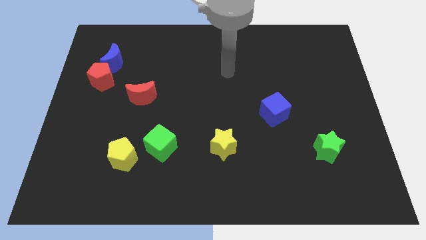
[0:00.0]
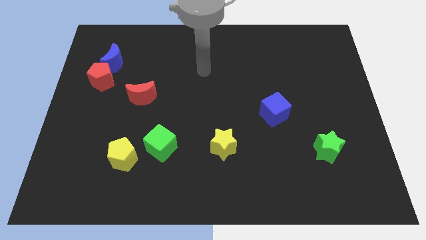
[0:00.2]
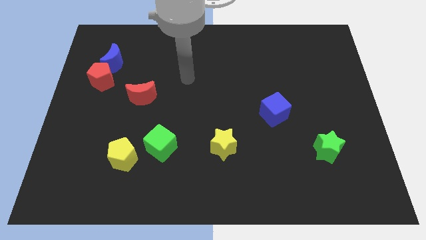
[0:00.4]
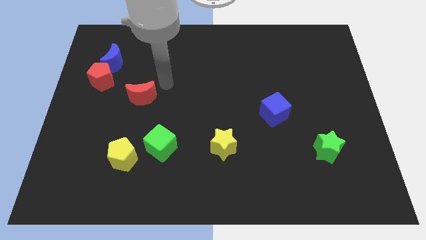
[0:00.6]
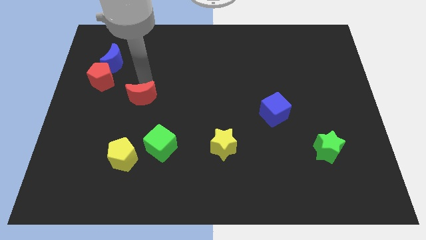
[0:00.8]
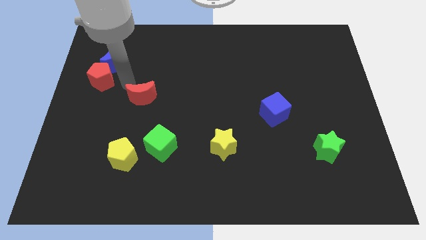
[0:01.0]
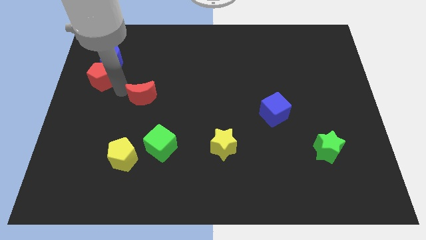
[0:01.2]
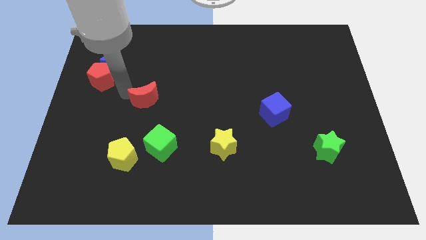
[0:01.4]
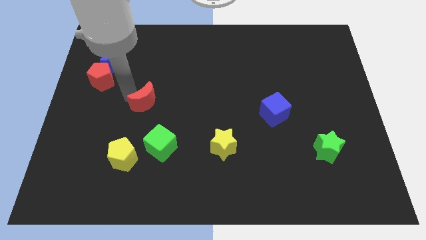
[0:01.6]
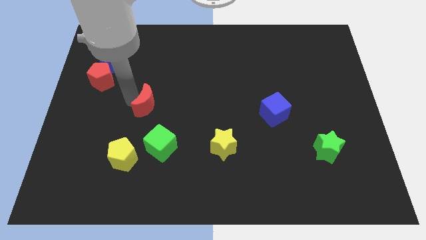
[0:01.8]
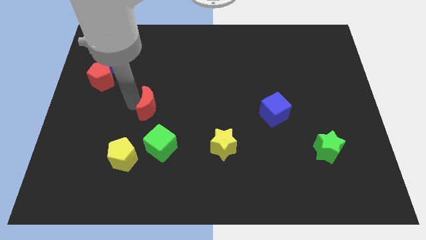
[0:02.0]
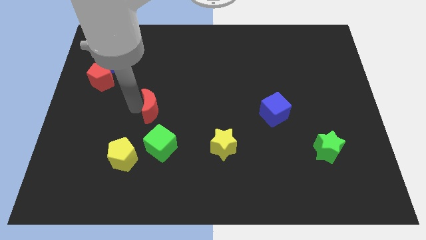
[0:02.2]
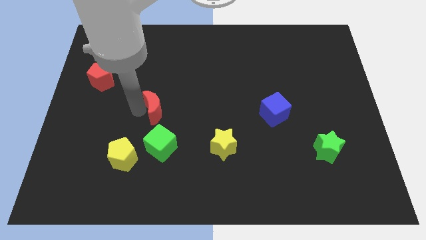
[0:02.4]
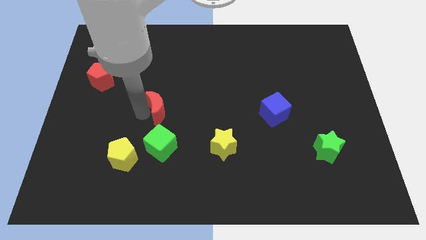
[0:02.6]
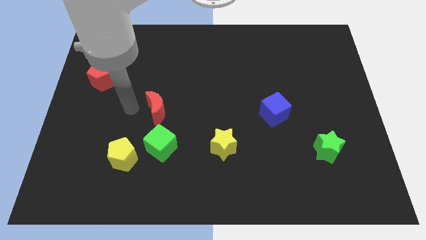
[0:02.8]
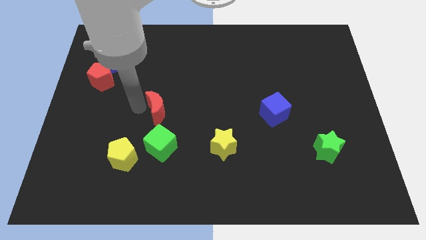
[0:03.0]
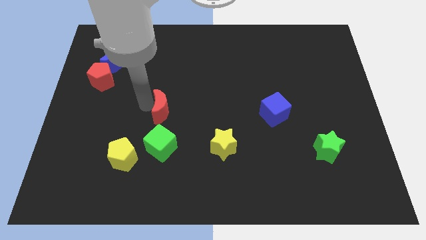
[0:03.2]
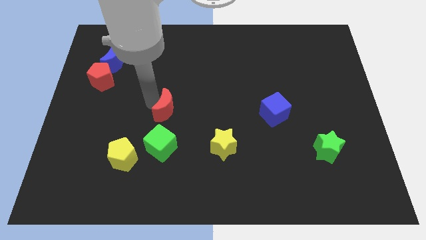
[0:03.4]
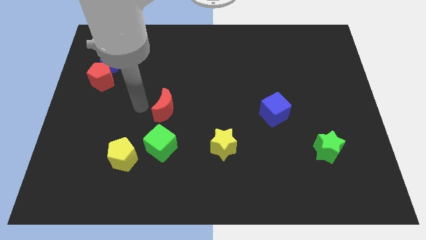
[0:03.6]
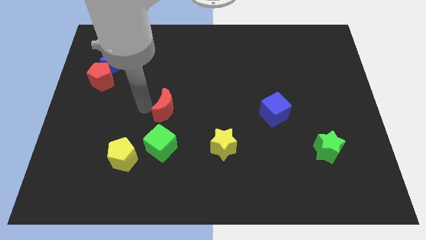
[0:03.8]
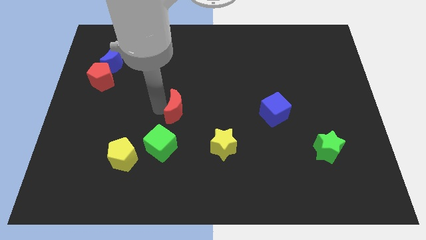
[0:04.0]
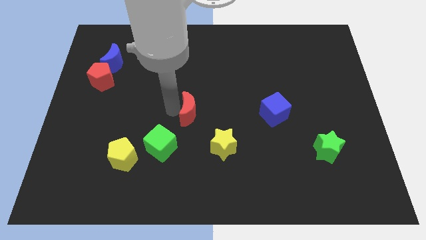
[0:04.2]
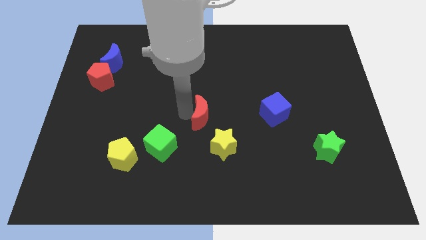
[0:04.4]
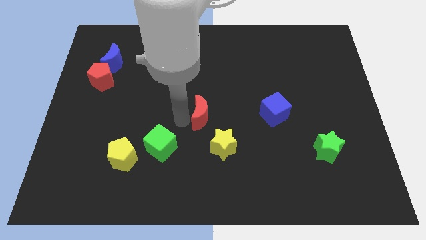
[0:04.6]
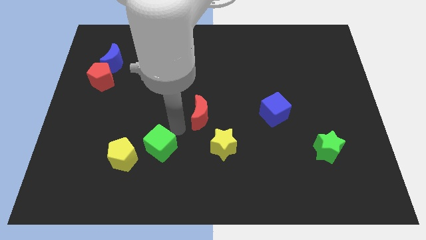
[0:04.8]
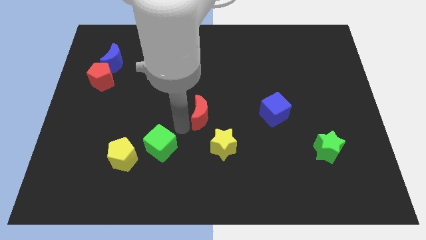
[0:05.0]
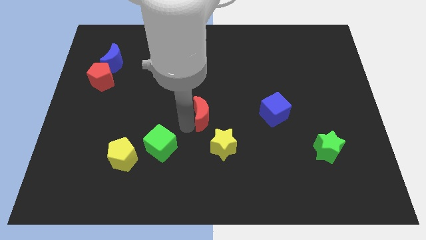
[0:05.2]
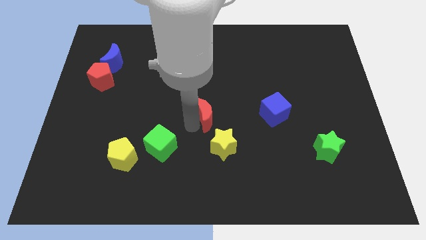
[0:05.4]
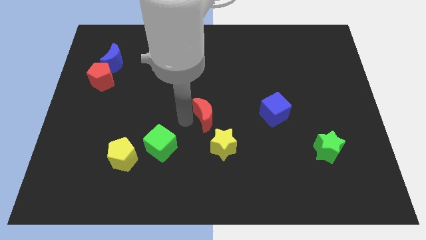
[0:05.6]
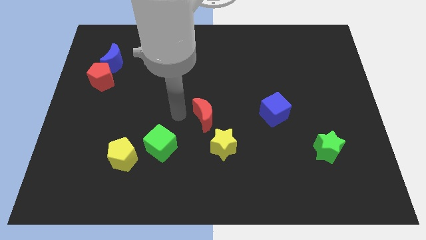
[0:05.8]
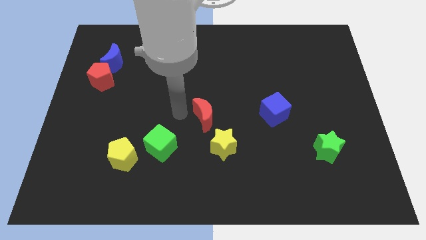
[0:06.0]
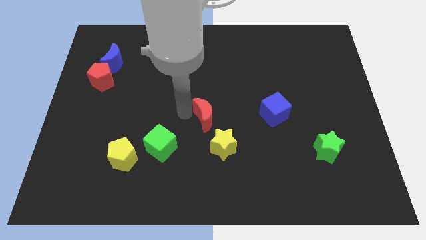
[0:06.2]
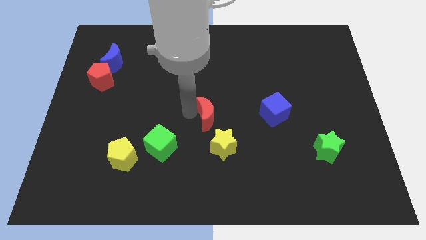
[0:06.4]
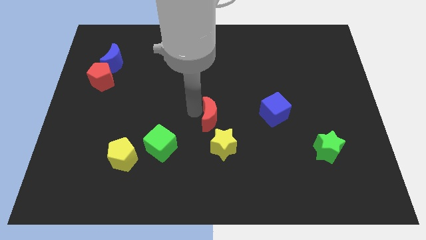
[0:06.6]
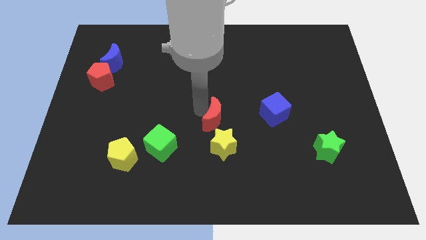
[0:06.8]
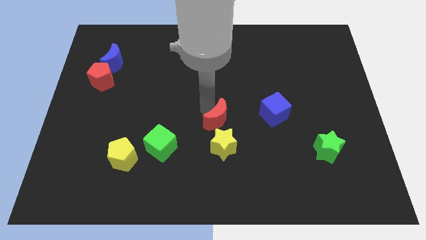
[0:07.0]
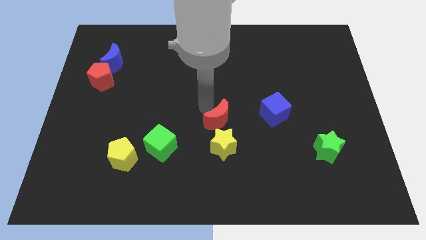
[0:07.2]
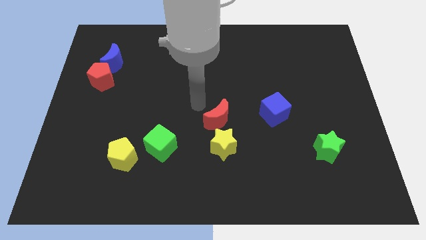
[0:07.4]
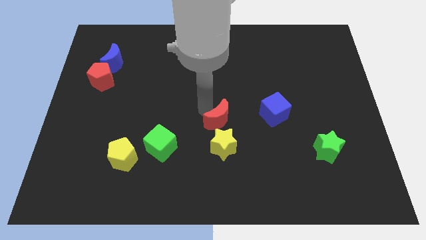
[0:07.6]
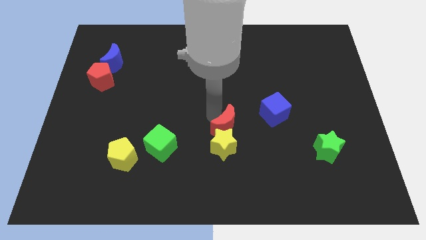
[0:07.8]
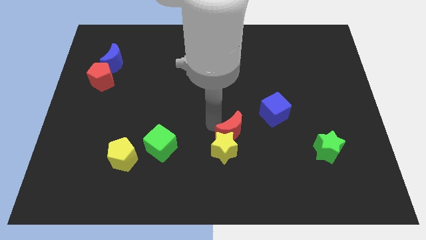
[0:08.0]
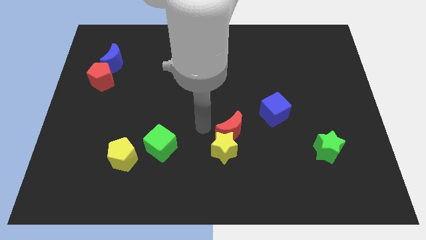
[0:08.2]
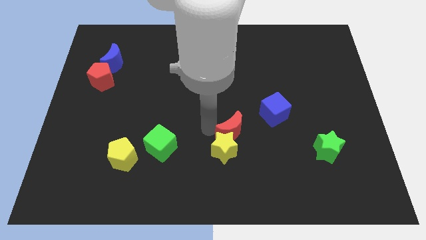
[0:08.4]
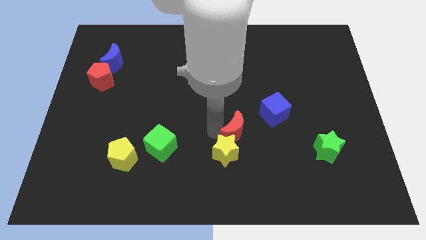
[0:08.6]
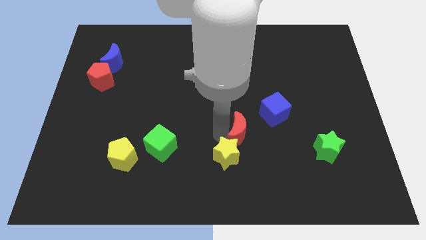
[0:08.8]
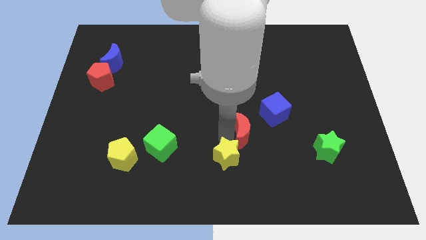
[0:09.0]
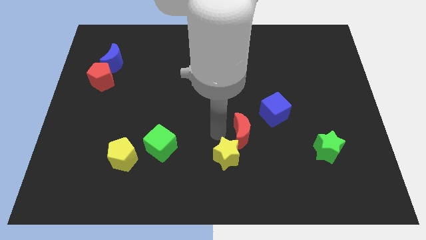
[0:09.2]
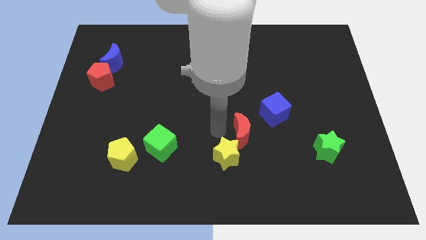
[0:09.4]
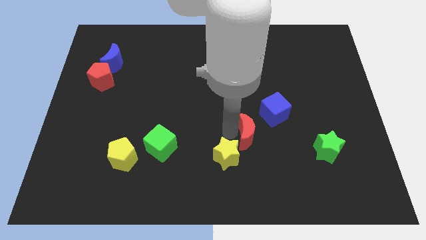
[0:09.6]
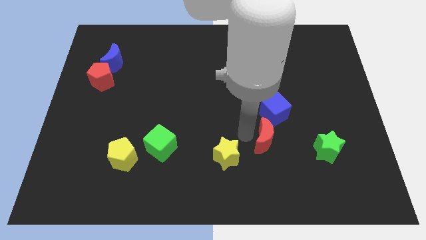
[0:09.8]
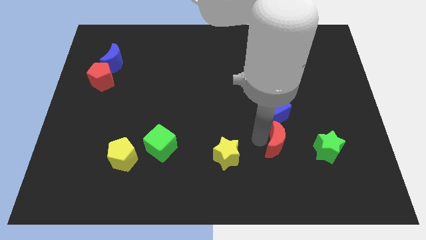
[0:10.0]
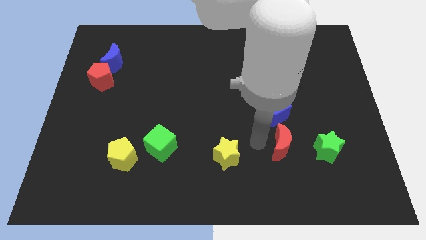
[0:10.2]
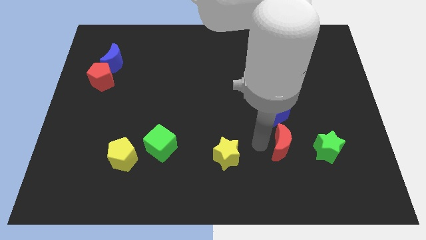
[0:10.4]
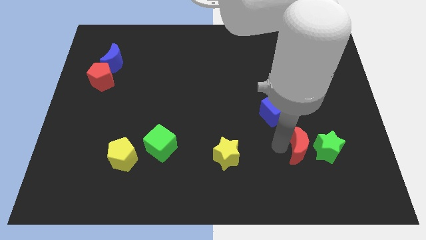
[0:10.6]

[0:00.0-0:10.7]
slide the red moon next to the green star
